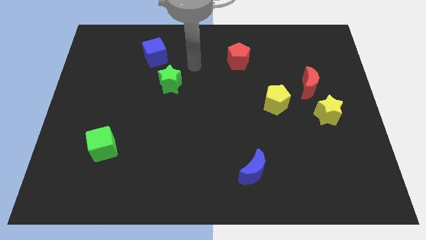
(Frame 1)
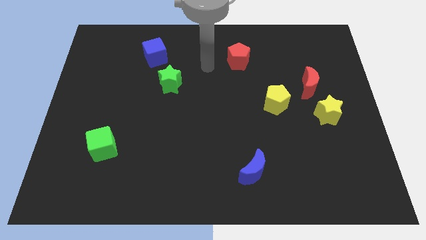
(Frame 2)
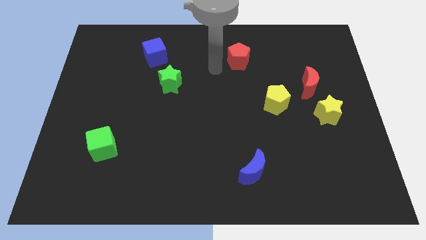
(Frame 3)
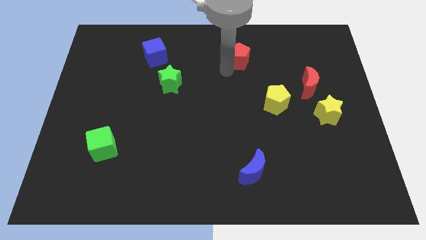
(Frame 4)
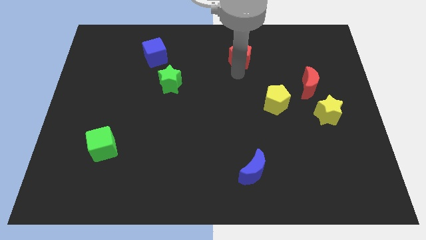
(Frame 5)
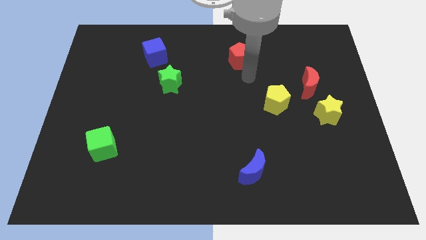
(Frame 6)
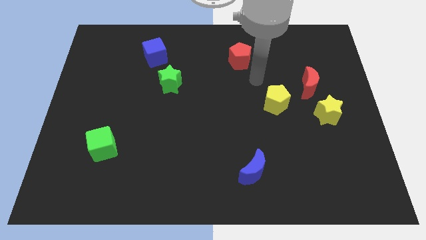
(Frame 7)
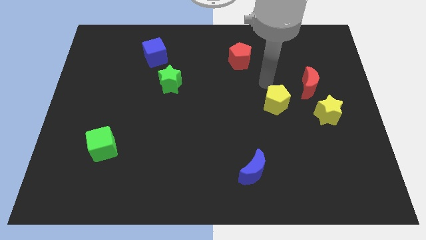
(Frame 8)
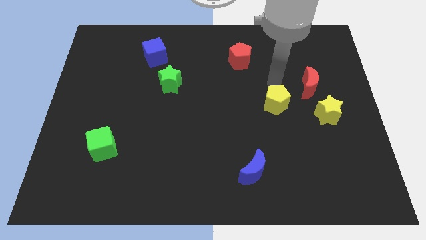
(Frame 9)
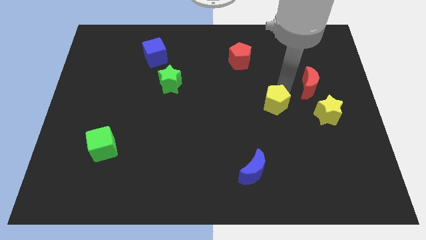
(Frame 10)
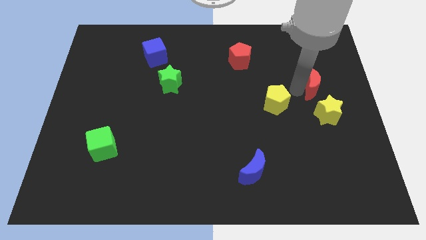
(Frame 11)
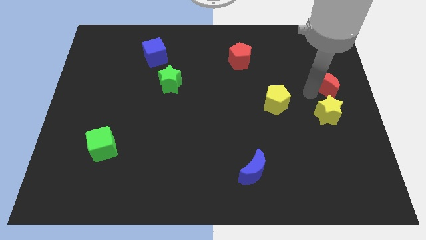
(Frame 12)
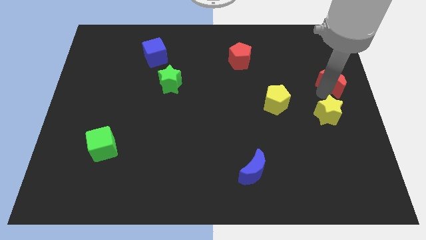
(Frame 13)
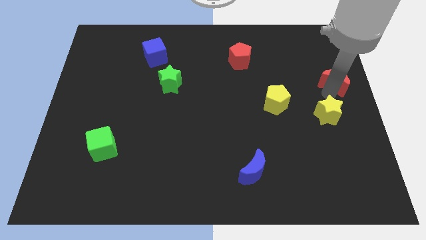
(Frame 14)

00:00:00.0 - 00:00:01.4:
move the yellow star away from the red moon

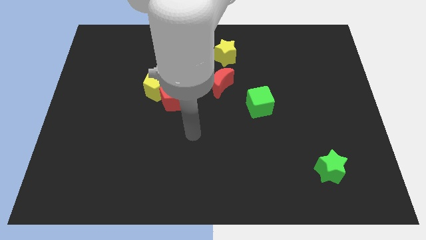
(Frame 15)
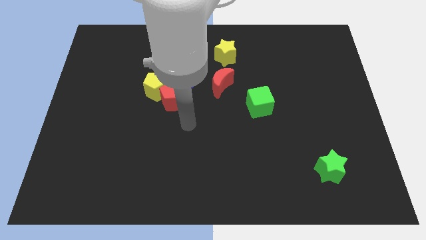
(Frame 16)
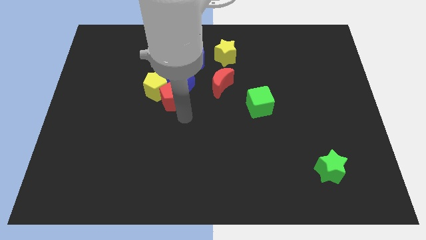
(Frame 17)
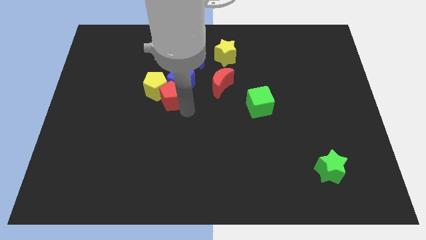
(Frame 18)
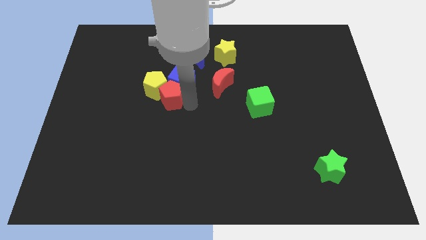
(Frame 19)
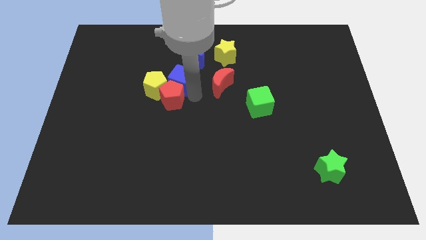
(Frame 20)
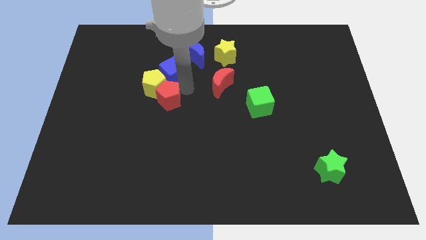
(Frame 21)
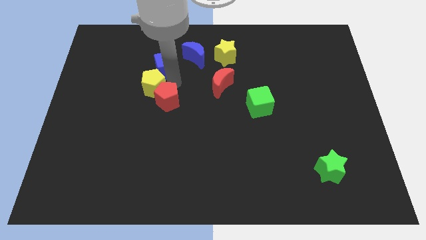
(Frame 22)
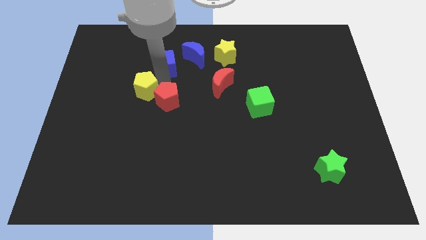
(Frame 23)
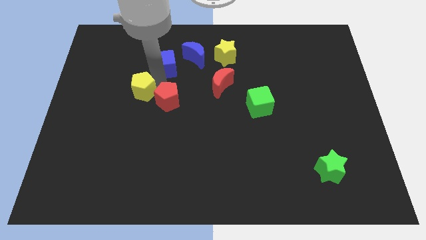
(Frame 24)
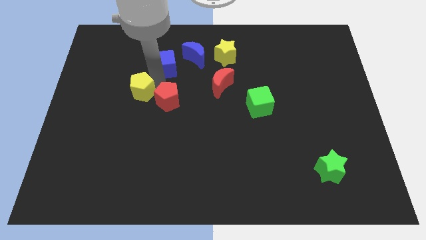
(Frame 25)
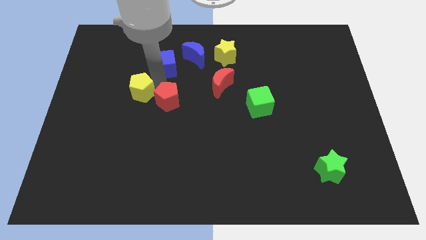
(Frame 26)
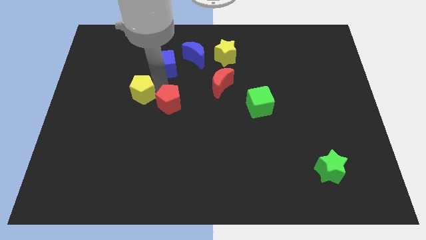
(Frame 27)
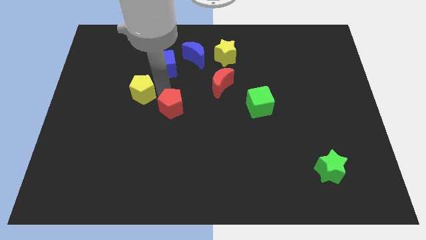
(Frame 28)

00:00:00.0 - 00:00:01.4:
separate the red pentagon from the yellow pentagon and blue cube

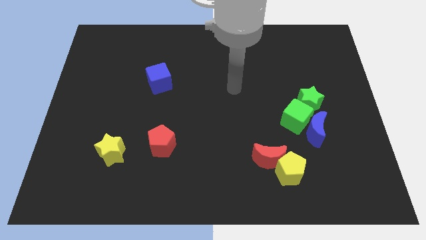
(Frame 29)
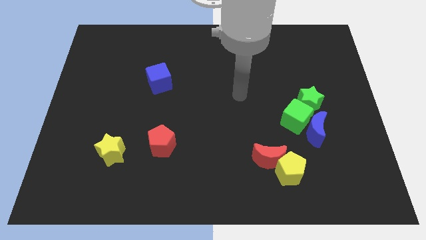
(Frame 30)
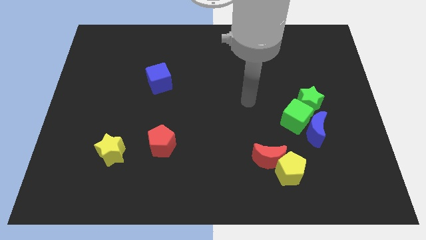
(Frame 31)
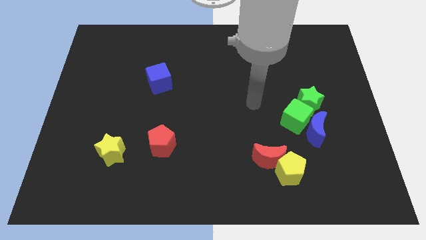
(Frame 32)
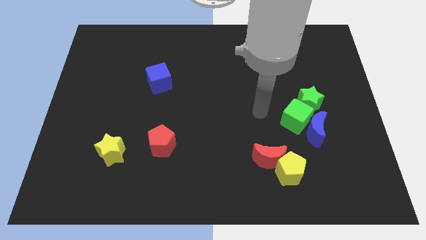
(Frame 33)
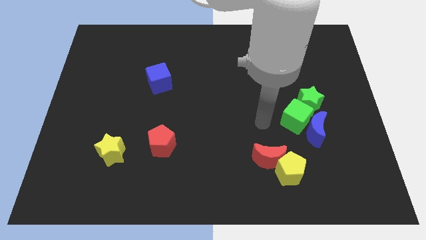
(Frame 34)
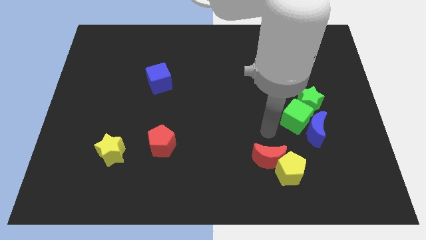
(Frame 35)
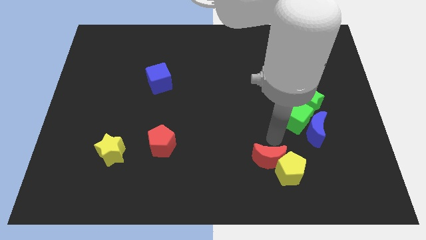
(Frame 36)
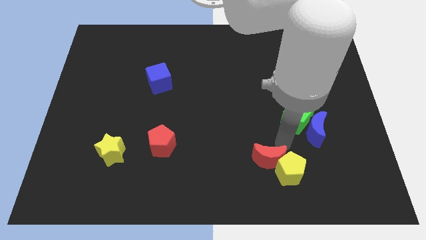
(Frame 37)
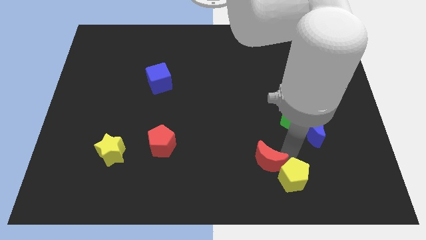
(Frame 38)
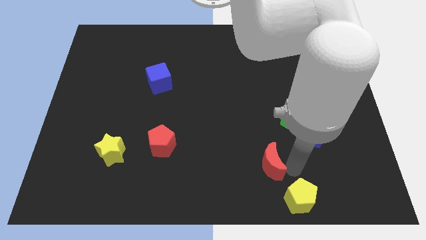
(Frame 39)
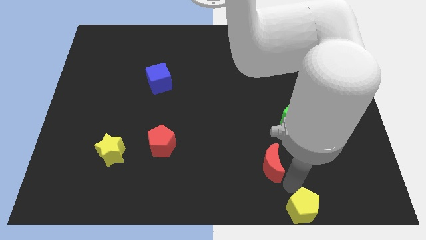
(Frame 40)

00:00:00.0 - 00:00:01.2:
separate the red moon from the yellow pentagon

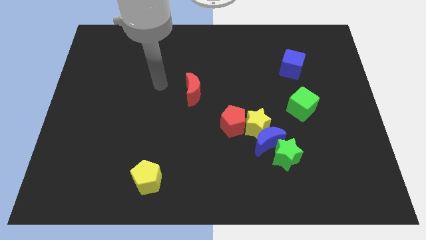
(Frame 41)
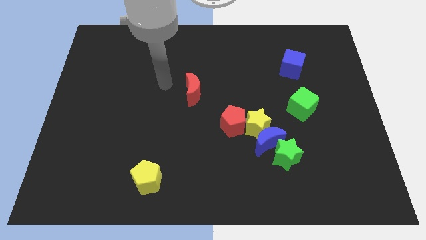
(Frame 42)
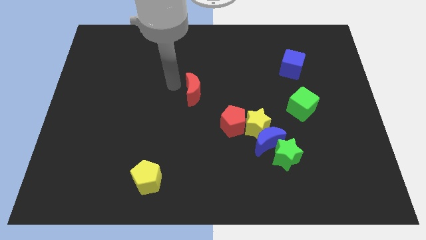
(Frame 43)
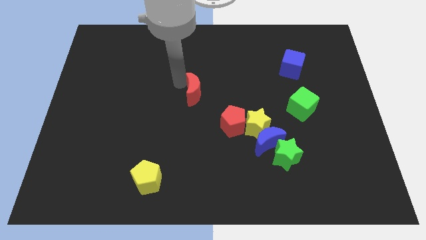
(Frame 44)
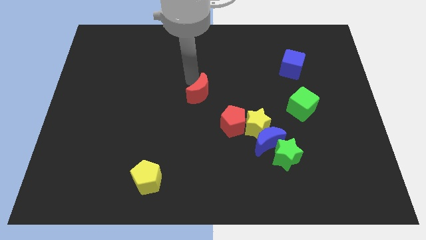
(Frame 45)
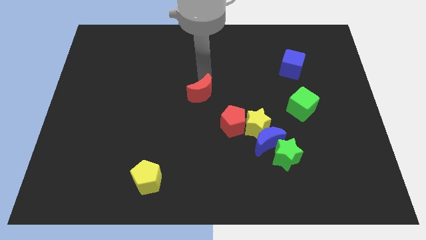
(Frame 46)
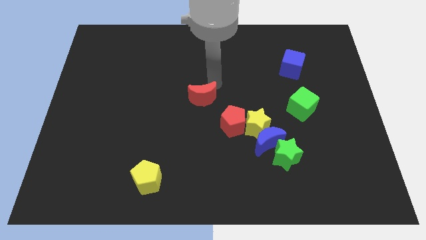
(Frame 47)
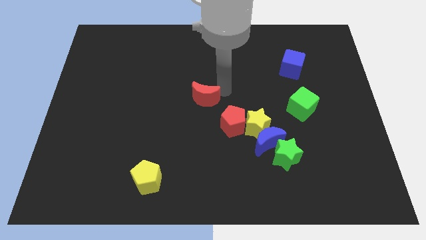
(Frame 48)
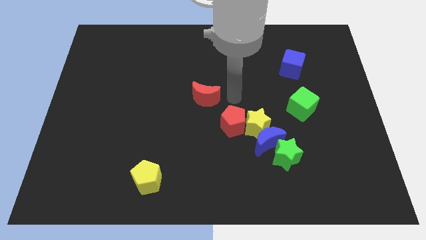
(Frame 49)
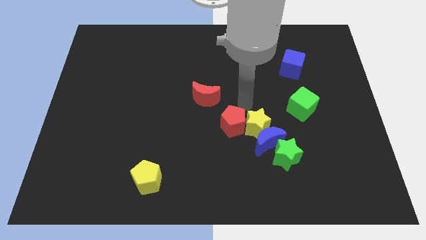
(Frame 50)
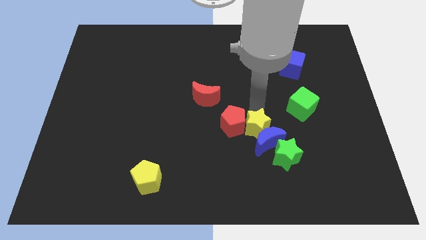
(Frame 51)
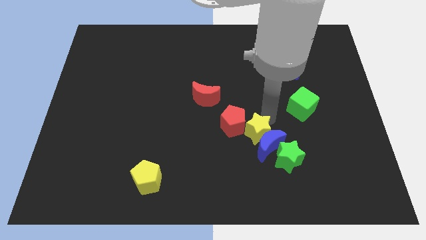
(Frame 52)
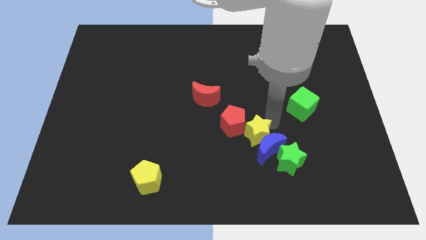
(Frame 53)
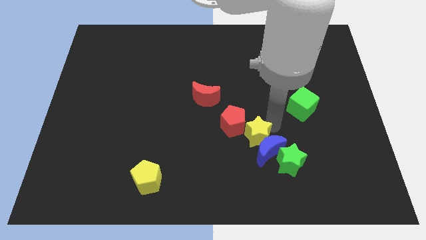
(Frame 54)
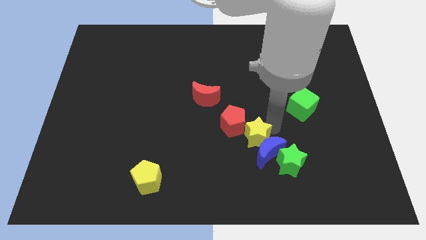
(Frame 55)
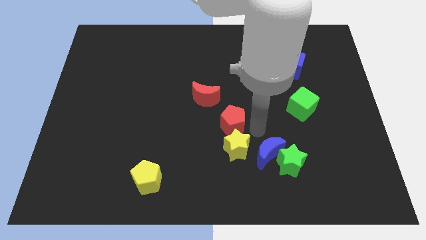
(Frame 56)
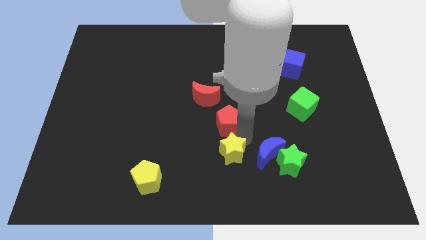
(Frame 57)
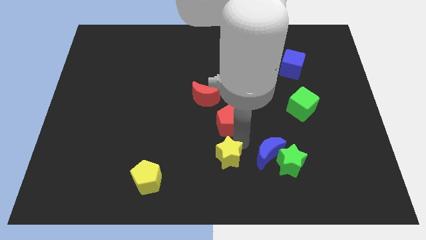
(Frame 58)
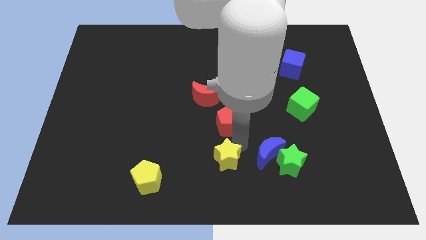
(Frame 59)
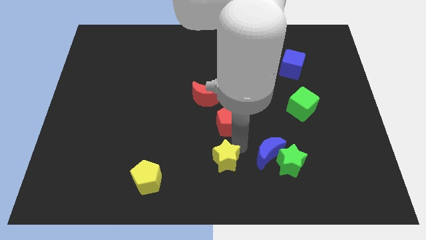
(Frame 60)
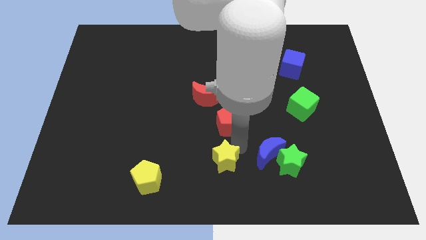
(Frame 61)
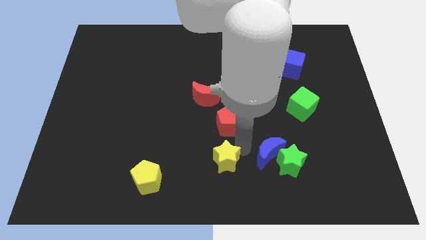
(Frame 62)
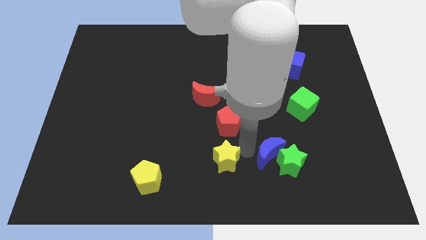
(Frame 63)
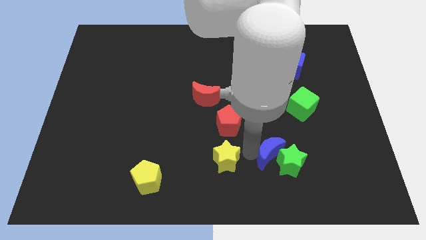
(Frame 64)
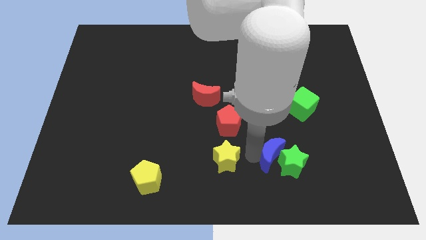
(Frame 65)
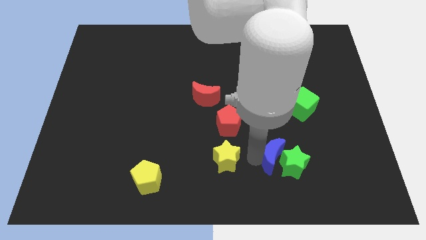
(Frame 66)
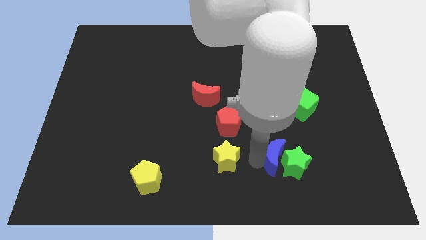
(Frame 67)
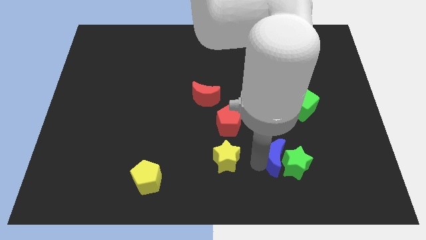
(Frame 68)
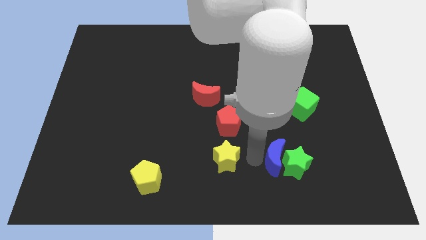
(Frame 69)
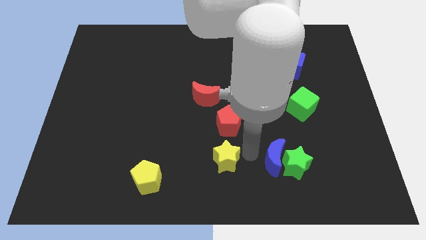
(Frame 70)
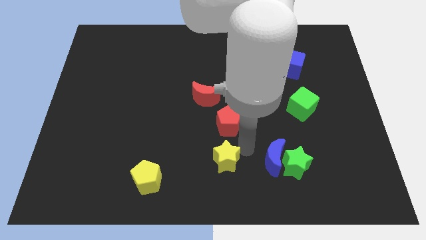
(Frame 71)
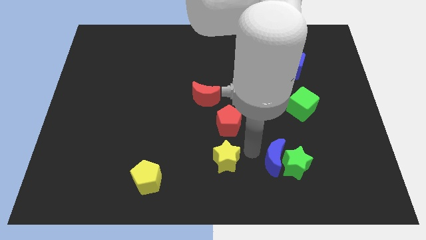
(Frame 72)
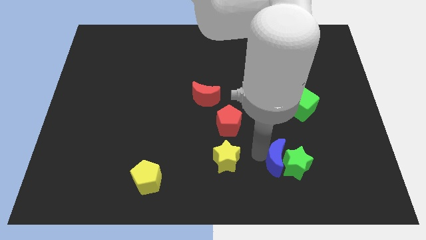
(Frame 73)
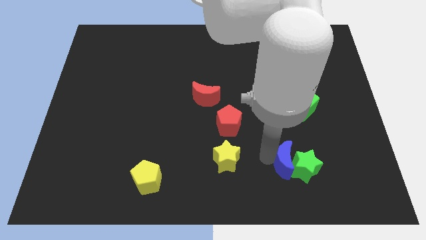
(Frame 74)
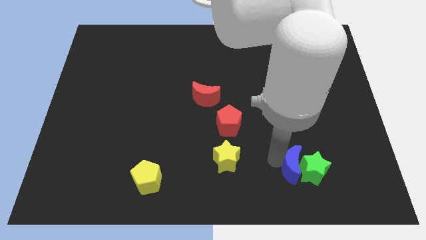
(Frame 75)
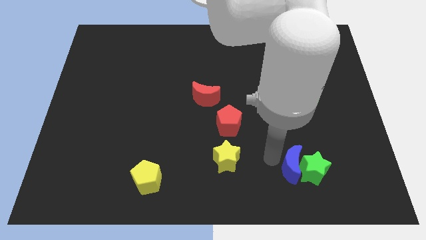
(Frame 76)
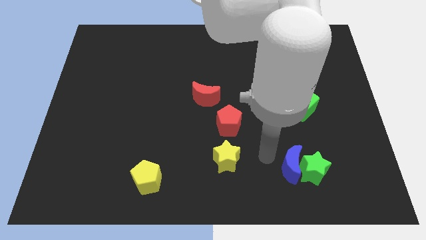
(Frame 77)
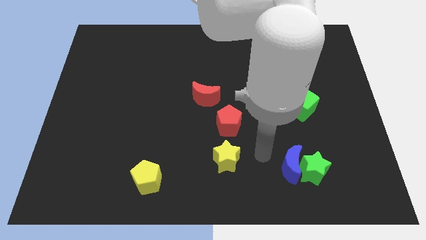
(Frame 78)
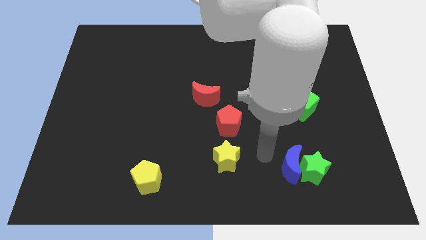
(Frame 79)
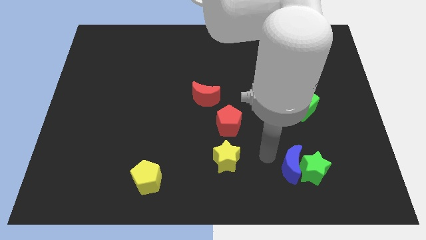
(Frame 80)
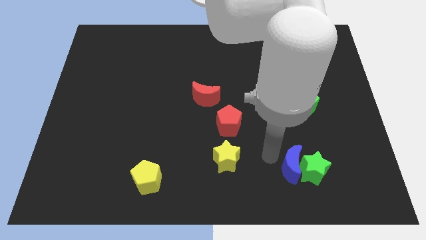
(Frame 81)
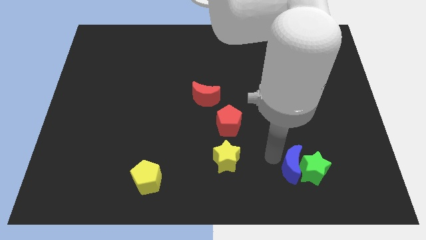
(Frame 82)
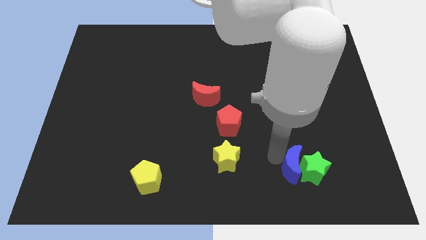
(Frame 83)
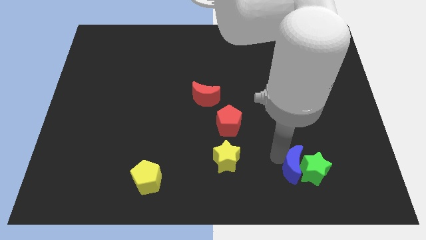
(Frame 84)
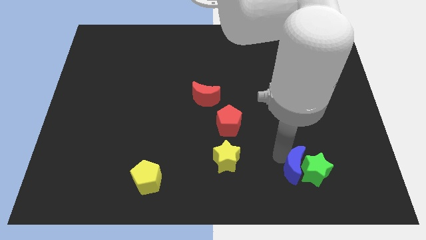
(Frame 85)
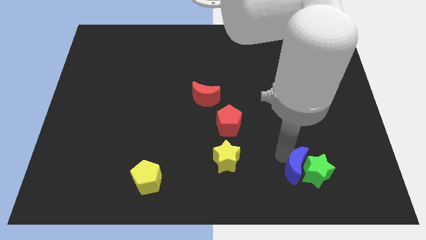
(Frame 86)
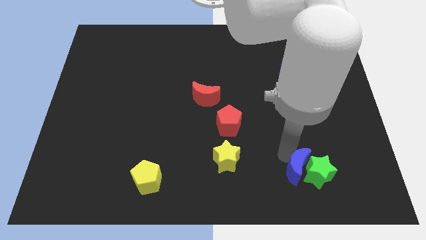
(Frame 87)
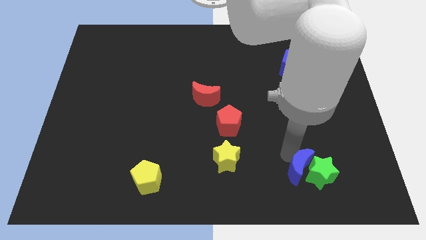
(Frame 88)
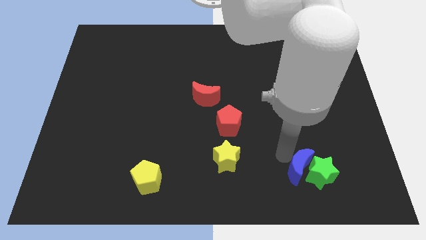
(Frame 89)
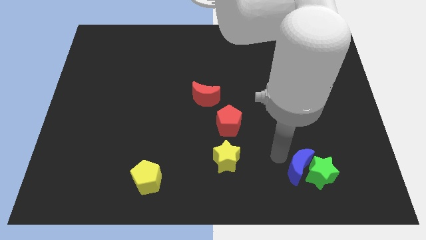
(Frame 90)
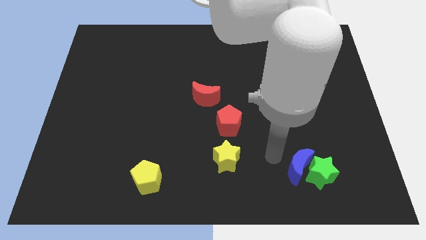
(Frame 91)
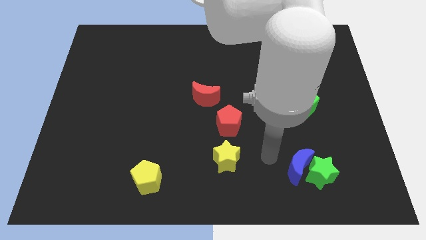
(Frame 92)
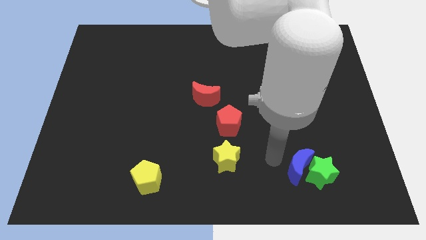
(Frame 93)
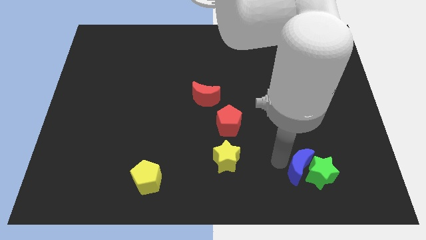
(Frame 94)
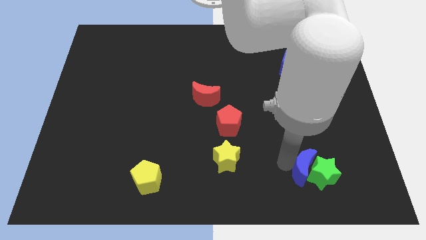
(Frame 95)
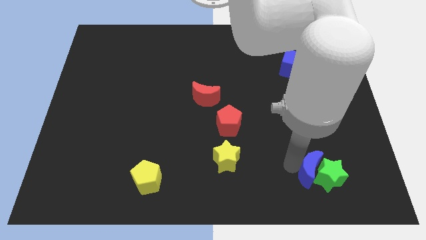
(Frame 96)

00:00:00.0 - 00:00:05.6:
move the blue moon away from the group of blocks
